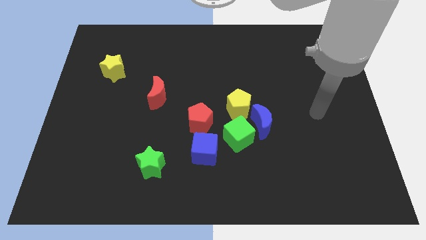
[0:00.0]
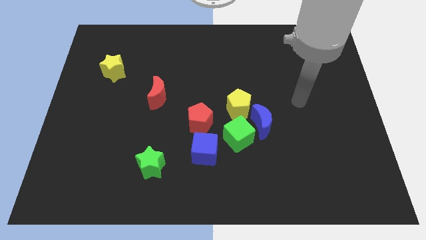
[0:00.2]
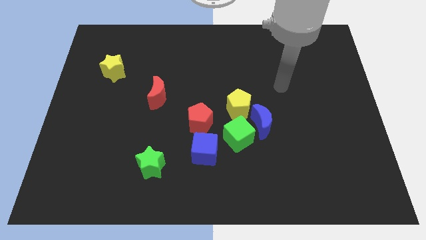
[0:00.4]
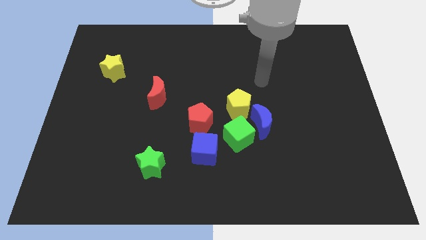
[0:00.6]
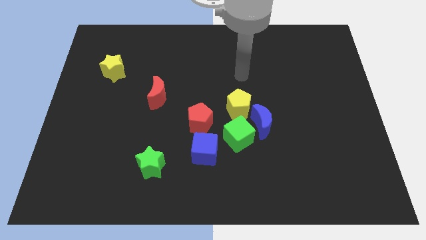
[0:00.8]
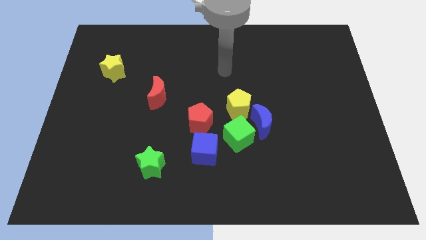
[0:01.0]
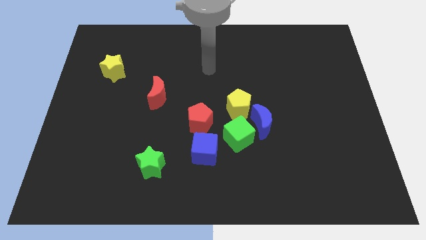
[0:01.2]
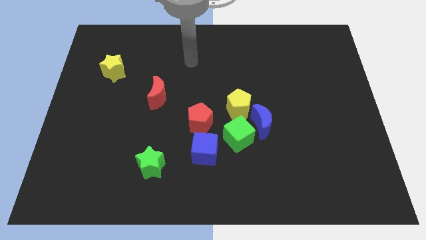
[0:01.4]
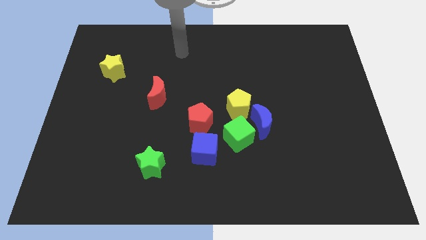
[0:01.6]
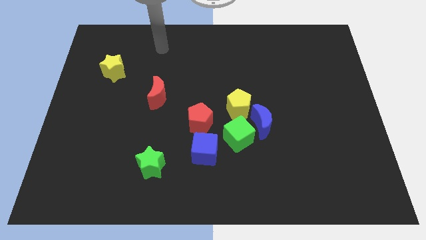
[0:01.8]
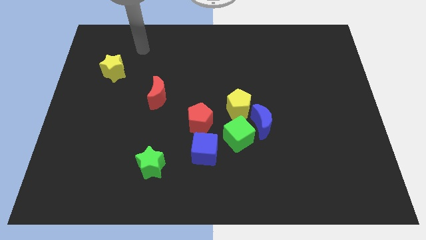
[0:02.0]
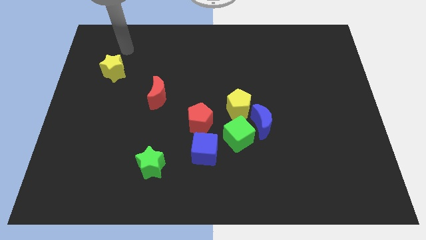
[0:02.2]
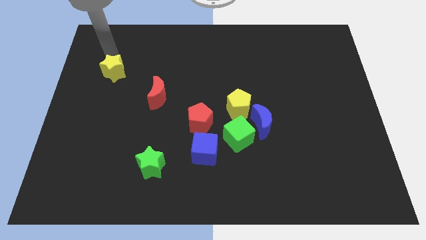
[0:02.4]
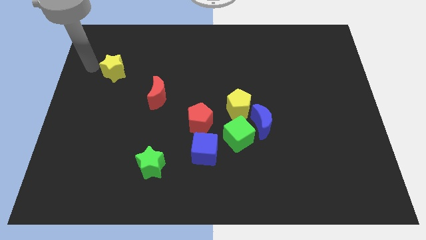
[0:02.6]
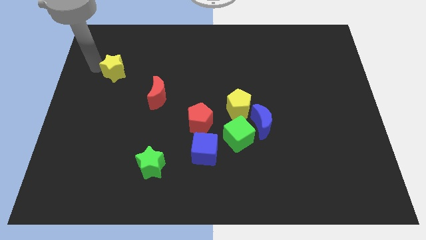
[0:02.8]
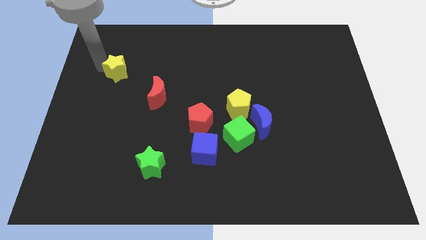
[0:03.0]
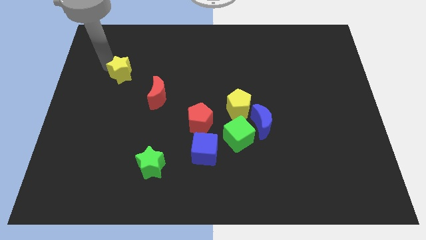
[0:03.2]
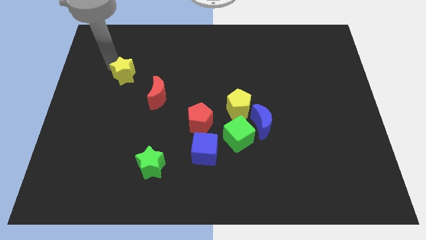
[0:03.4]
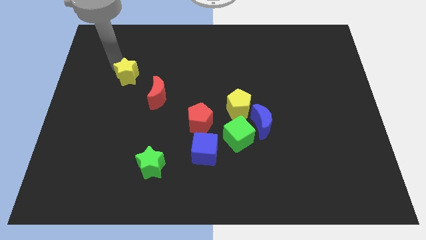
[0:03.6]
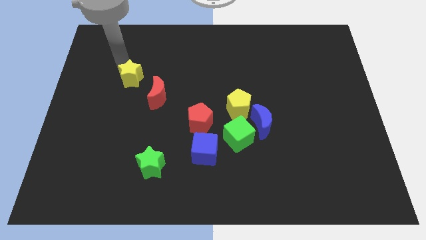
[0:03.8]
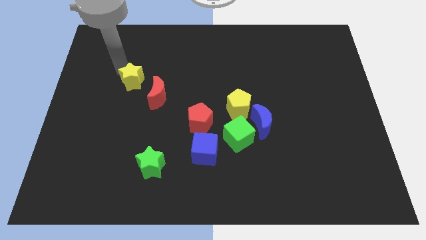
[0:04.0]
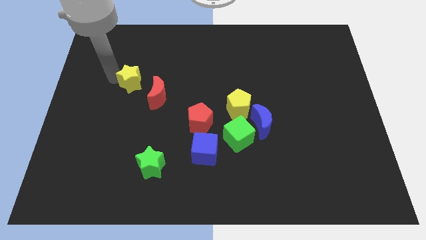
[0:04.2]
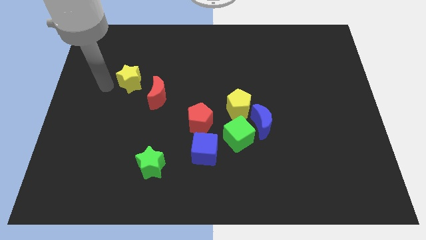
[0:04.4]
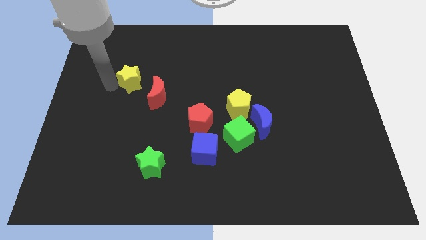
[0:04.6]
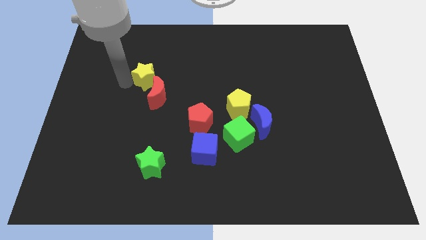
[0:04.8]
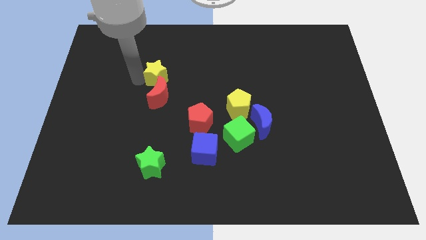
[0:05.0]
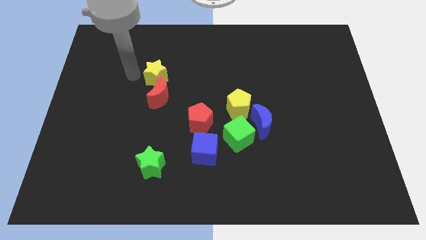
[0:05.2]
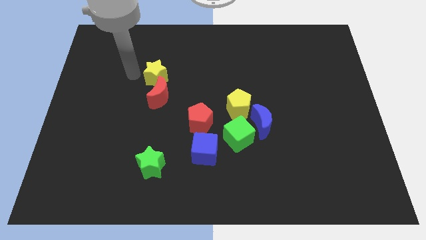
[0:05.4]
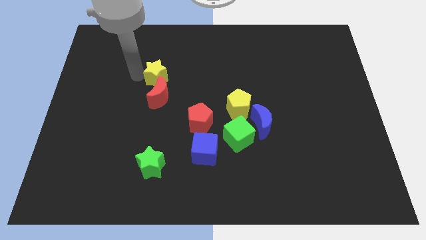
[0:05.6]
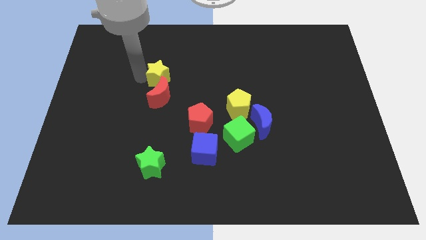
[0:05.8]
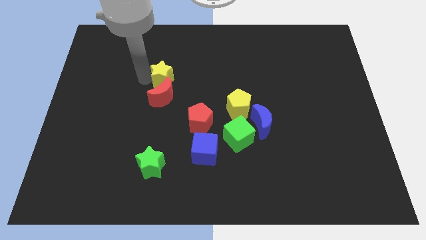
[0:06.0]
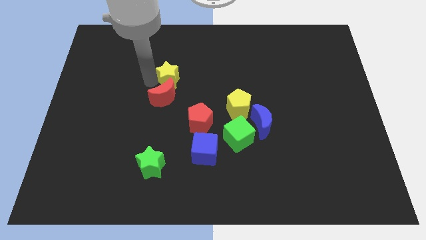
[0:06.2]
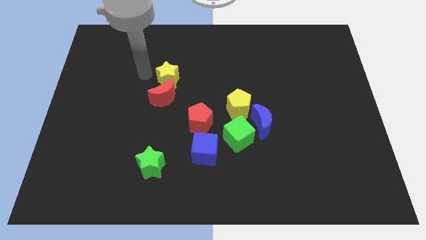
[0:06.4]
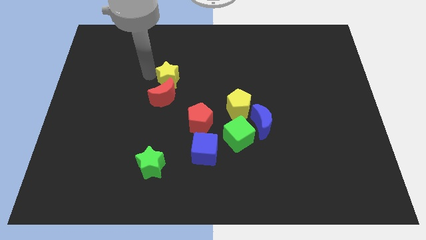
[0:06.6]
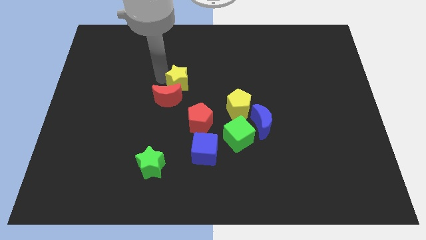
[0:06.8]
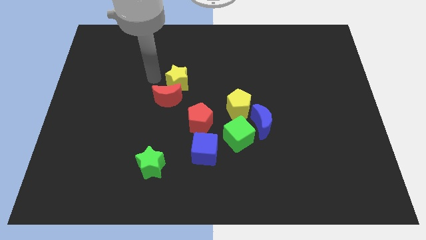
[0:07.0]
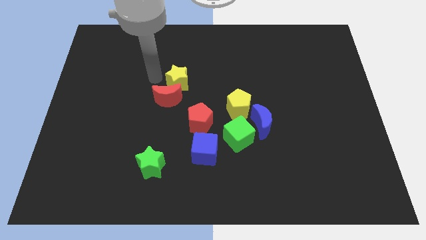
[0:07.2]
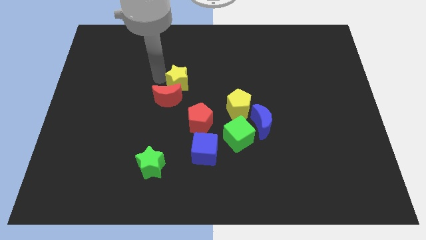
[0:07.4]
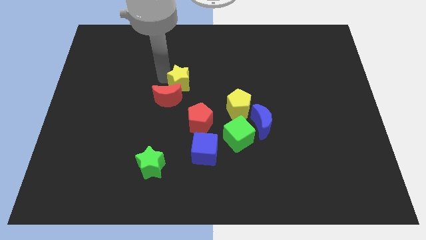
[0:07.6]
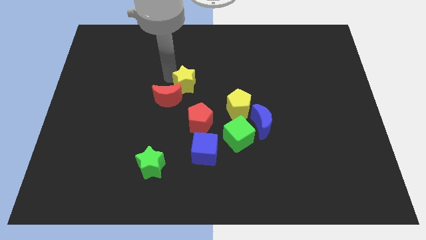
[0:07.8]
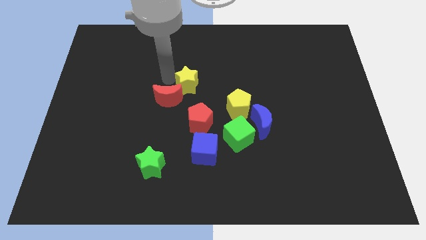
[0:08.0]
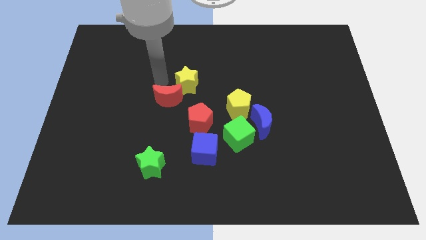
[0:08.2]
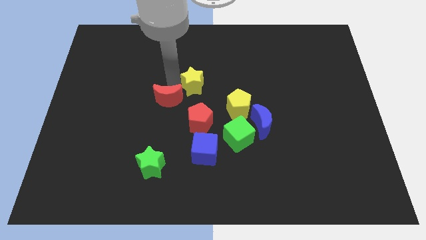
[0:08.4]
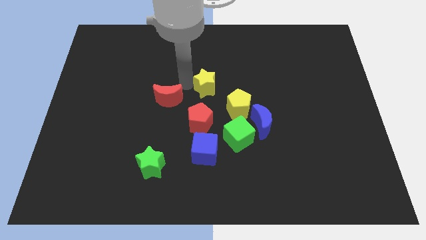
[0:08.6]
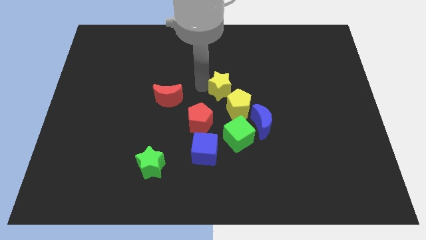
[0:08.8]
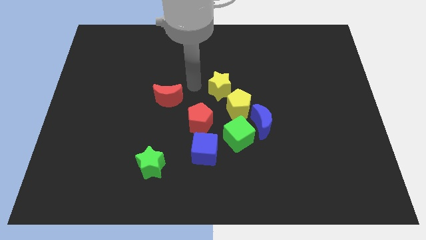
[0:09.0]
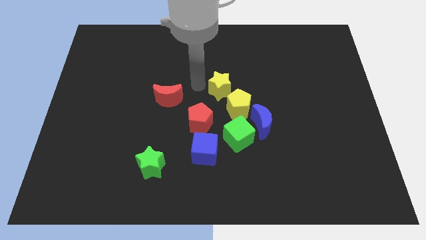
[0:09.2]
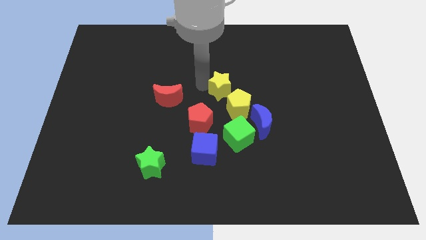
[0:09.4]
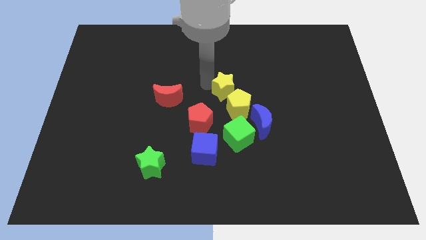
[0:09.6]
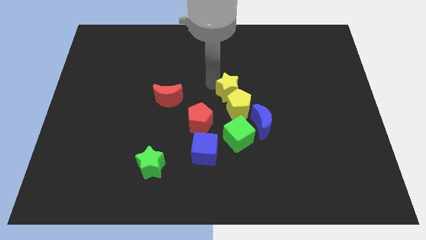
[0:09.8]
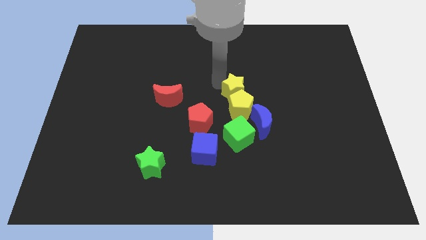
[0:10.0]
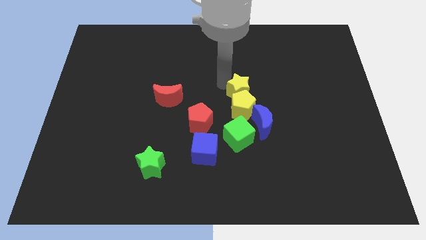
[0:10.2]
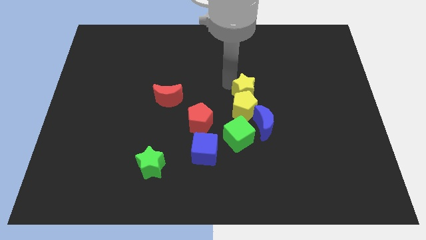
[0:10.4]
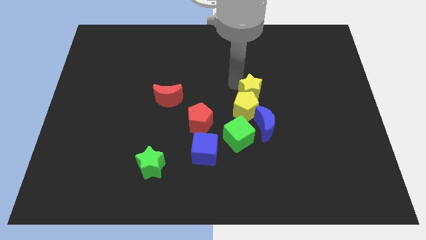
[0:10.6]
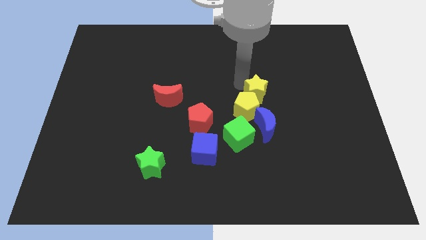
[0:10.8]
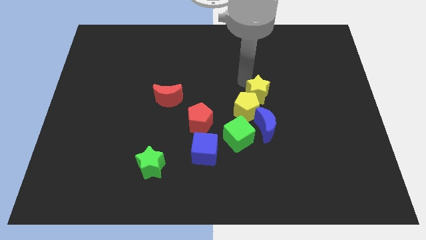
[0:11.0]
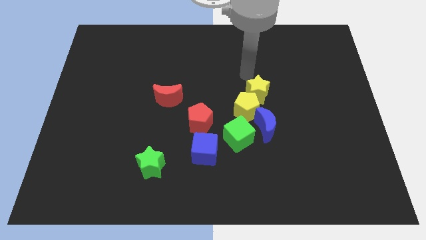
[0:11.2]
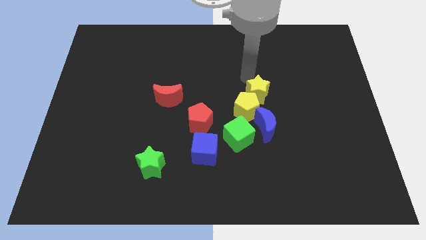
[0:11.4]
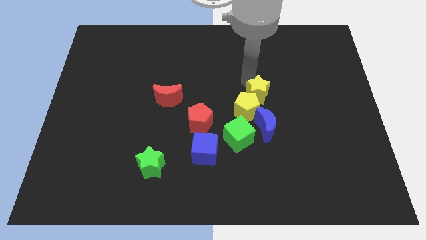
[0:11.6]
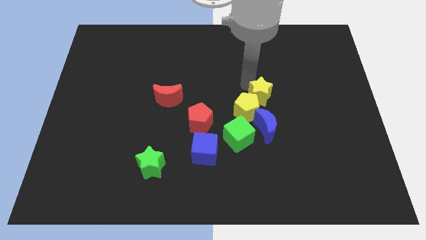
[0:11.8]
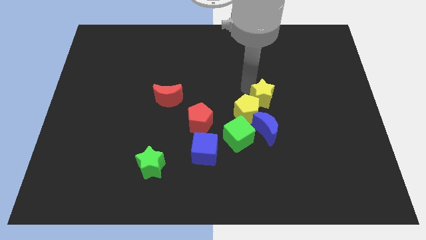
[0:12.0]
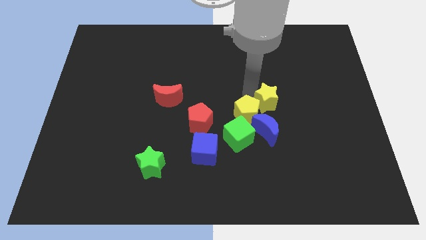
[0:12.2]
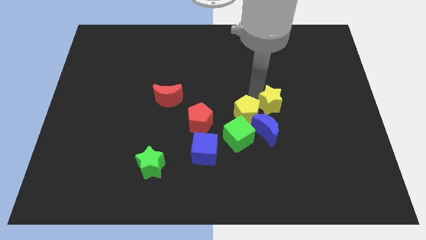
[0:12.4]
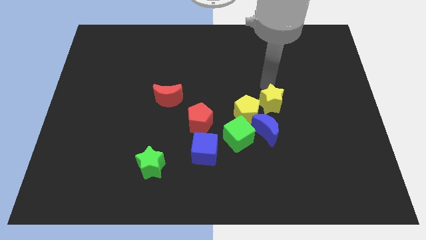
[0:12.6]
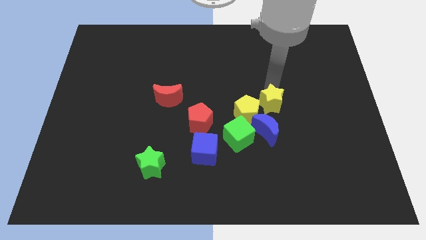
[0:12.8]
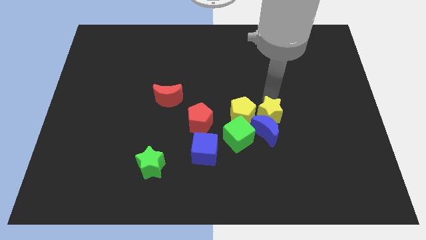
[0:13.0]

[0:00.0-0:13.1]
push the yellow star towards the blue moon
